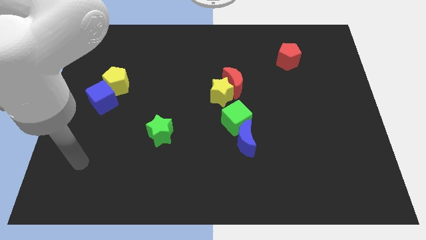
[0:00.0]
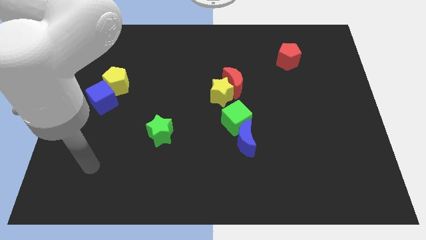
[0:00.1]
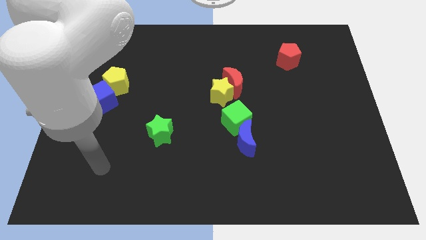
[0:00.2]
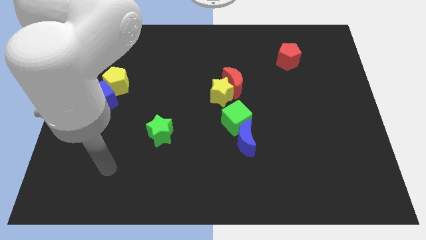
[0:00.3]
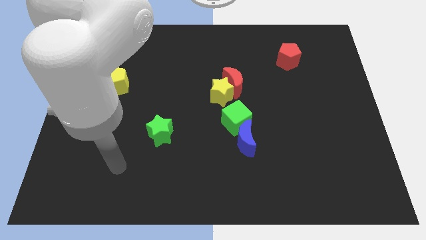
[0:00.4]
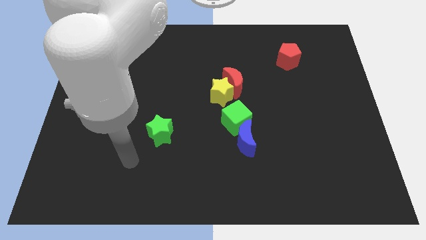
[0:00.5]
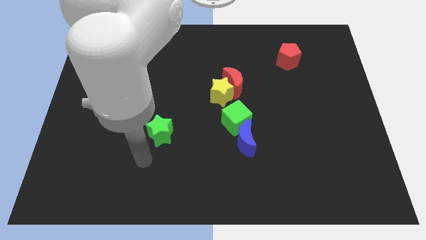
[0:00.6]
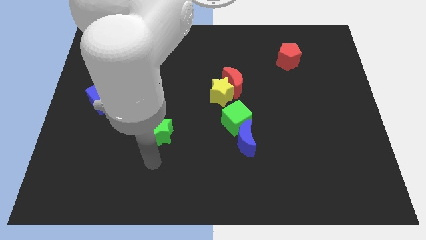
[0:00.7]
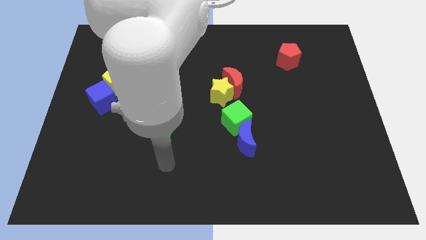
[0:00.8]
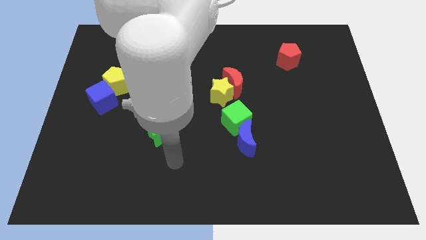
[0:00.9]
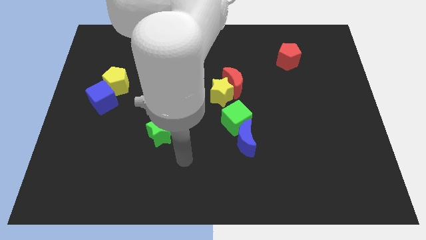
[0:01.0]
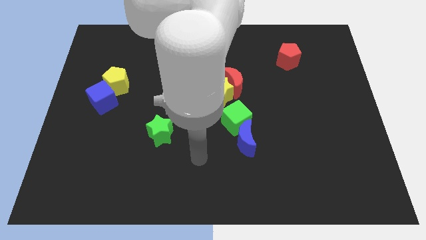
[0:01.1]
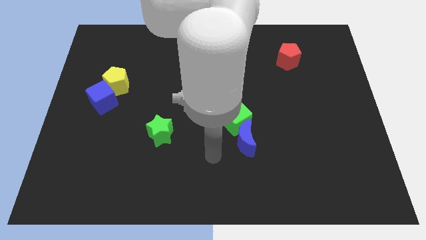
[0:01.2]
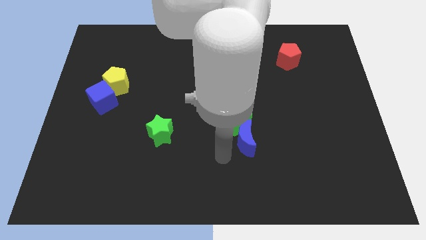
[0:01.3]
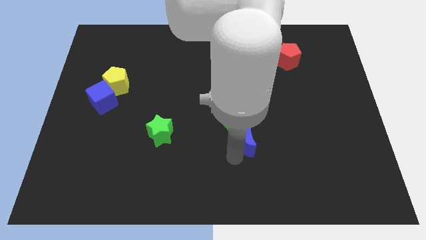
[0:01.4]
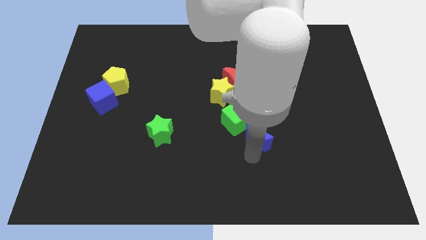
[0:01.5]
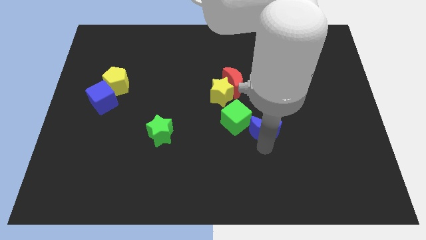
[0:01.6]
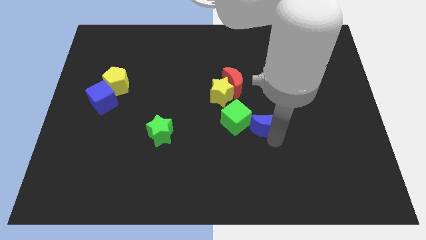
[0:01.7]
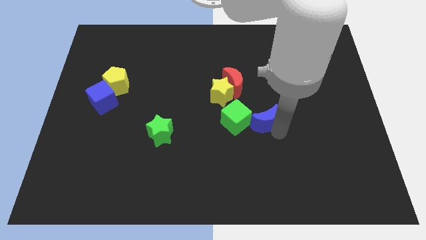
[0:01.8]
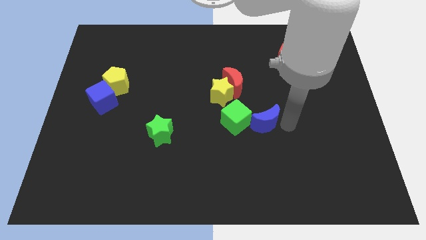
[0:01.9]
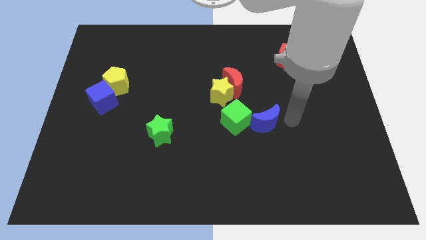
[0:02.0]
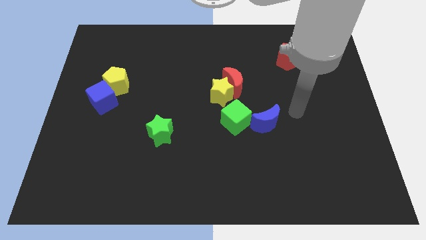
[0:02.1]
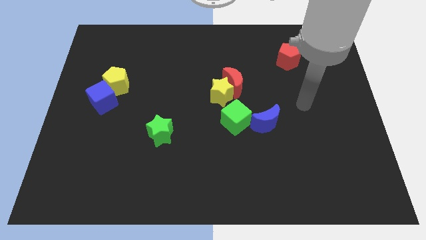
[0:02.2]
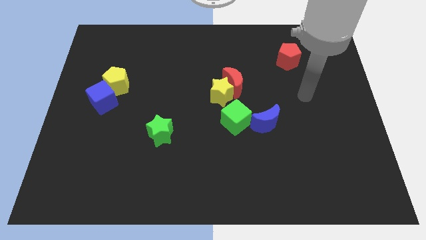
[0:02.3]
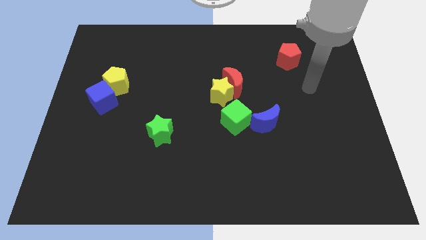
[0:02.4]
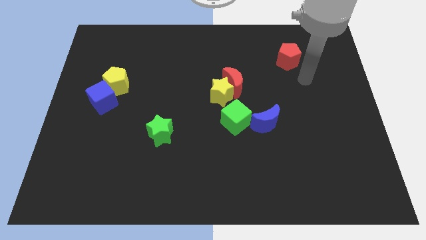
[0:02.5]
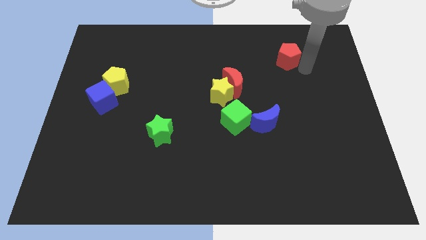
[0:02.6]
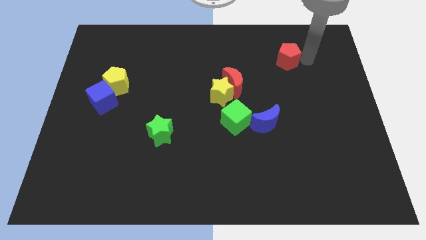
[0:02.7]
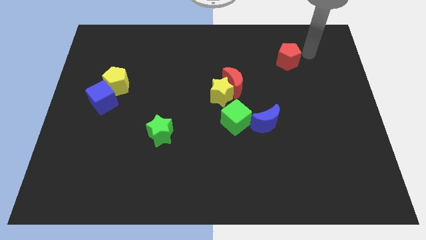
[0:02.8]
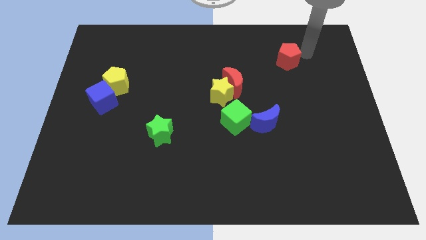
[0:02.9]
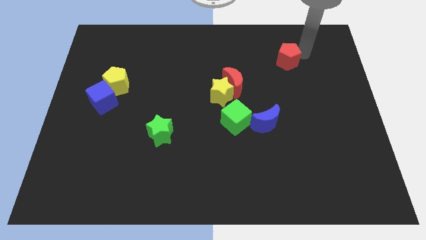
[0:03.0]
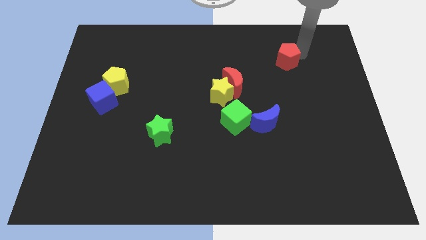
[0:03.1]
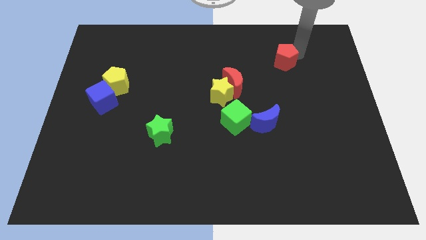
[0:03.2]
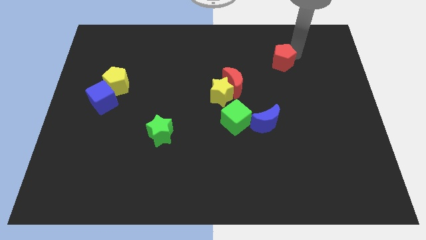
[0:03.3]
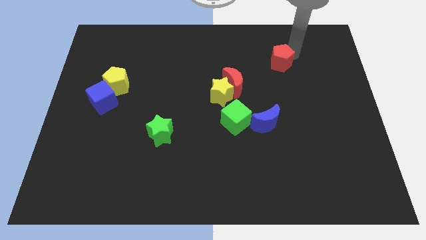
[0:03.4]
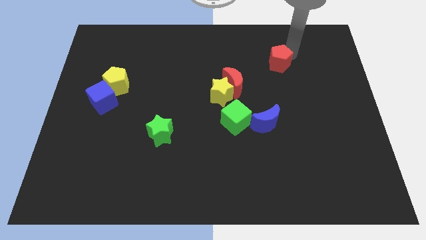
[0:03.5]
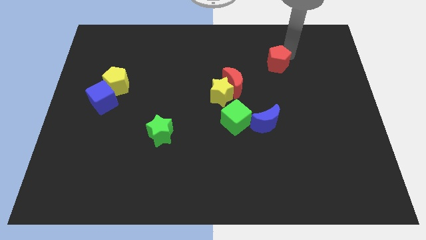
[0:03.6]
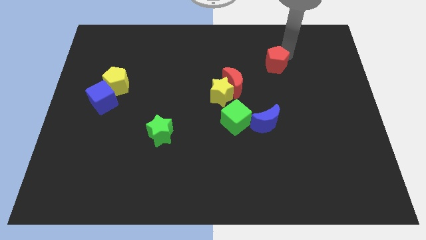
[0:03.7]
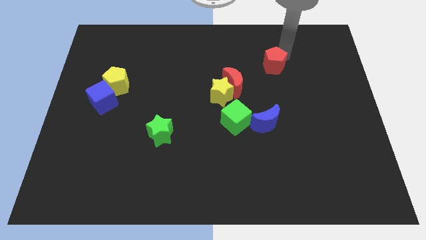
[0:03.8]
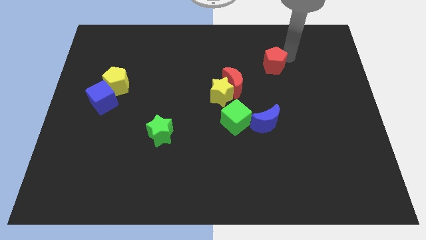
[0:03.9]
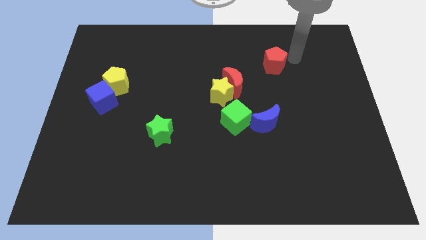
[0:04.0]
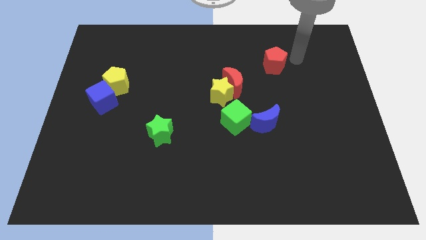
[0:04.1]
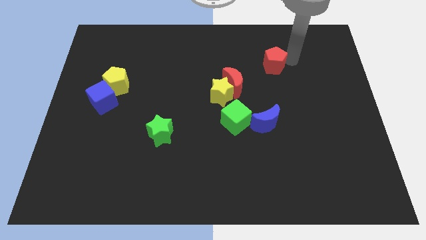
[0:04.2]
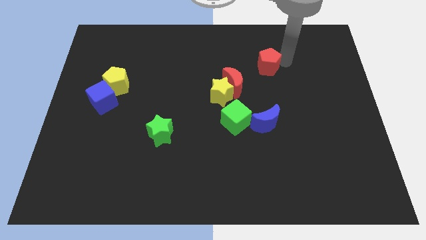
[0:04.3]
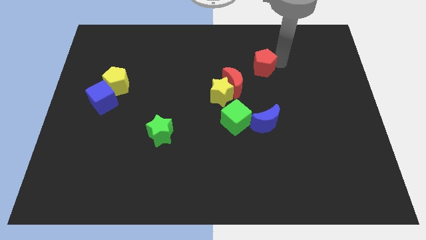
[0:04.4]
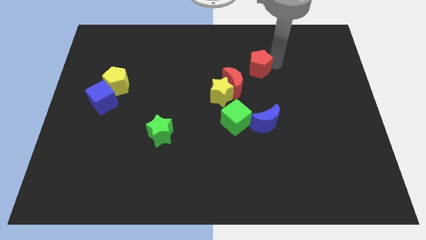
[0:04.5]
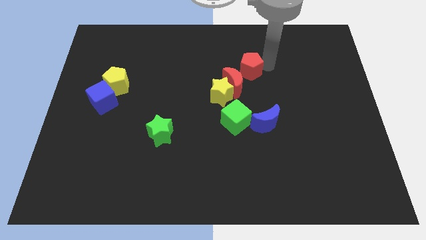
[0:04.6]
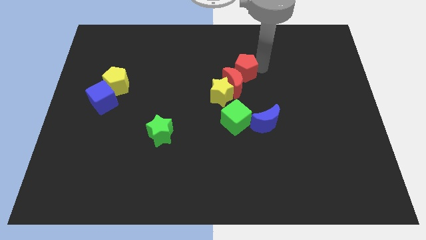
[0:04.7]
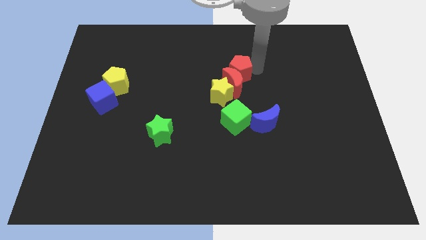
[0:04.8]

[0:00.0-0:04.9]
put the red pentagon to the top left of the red moon

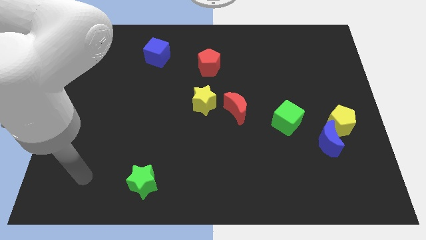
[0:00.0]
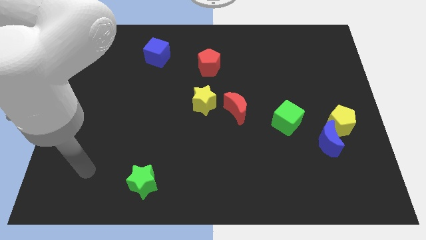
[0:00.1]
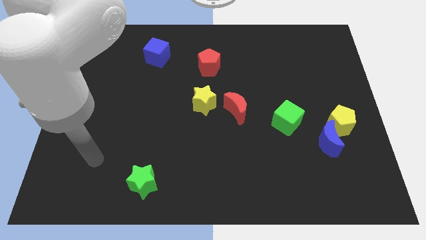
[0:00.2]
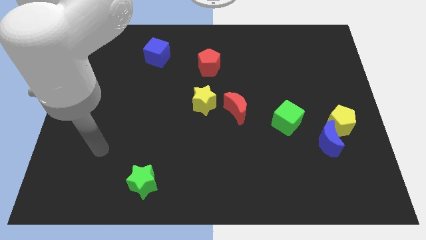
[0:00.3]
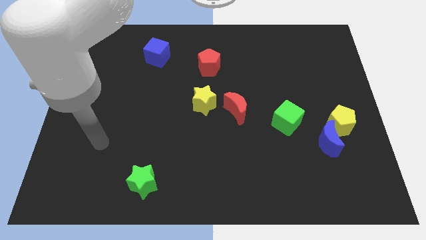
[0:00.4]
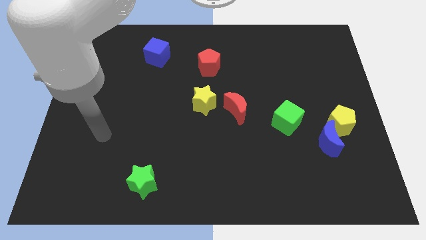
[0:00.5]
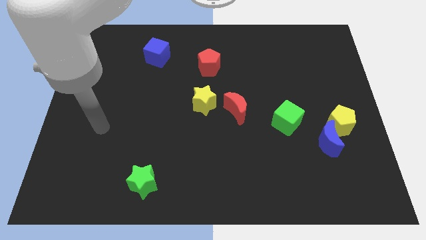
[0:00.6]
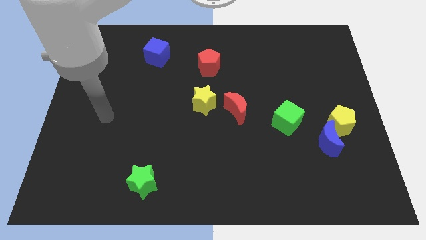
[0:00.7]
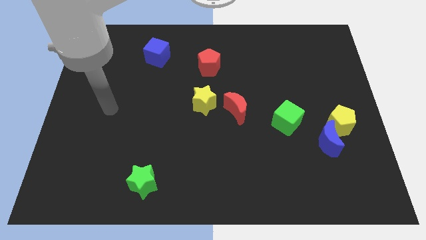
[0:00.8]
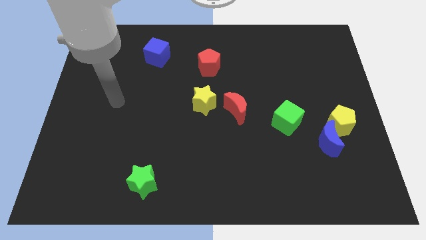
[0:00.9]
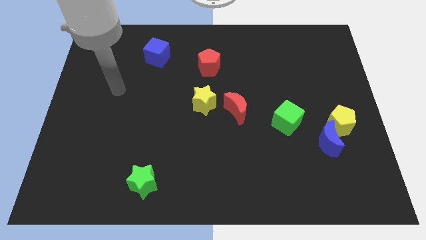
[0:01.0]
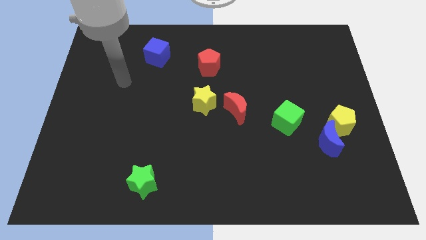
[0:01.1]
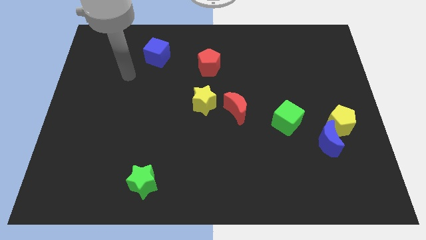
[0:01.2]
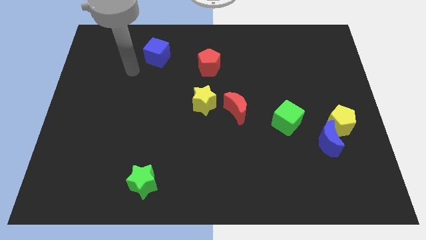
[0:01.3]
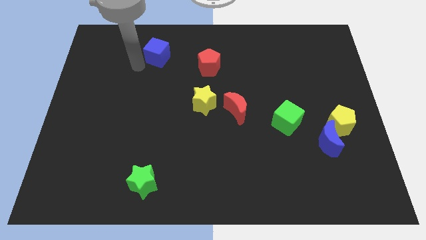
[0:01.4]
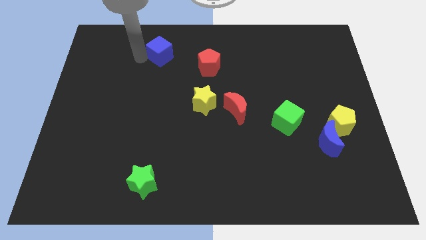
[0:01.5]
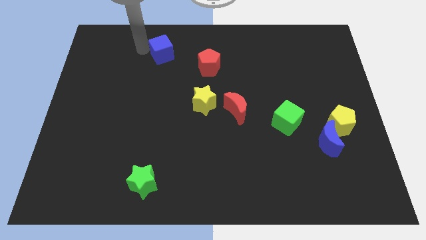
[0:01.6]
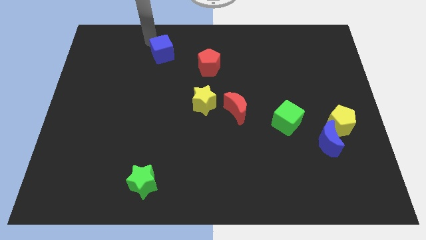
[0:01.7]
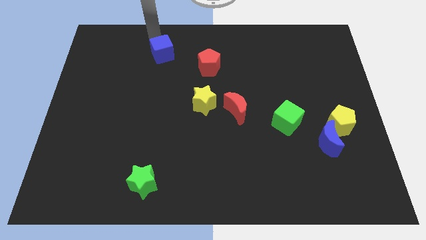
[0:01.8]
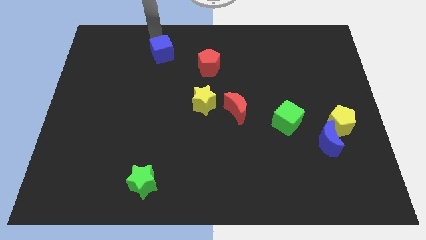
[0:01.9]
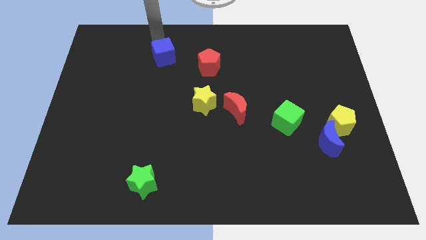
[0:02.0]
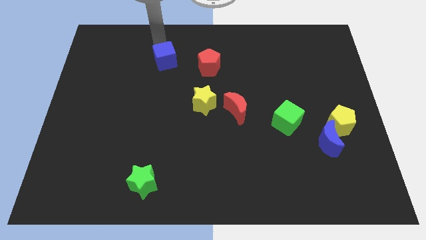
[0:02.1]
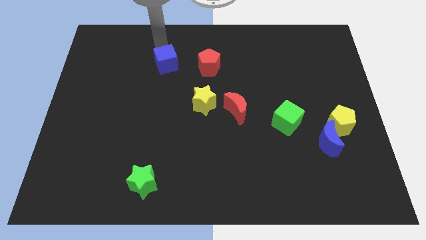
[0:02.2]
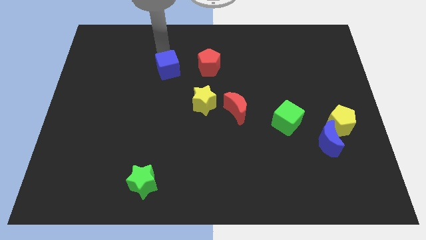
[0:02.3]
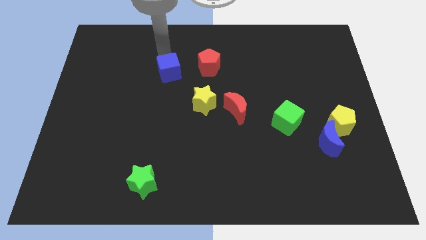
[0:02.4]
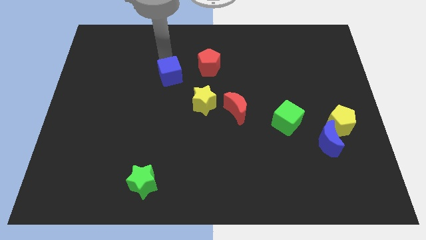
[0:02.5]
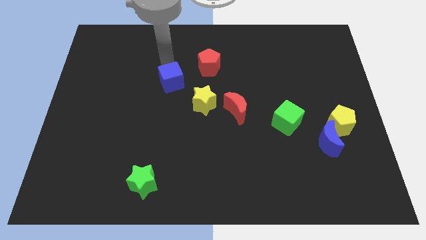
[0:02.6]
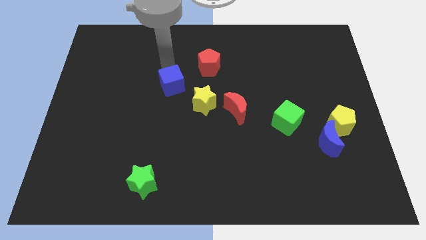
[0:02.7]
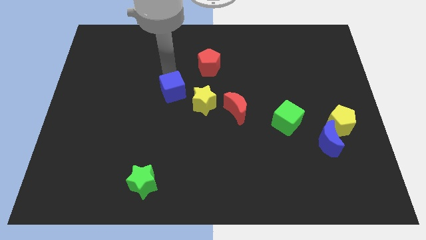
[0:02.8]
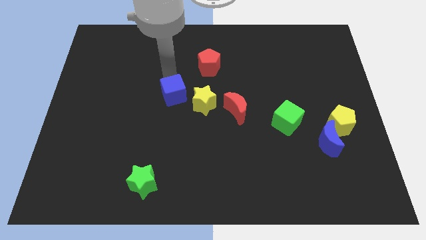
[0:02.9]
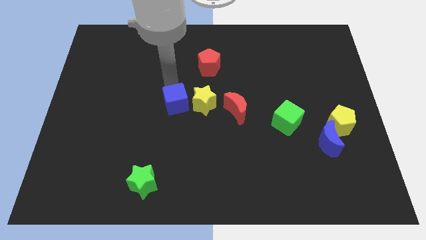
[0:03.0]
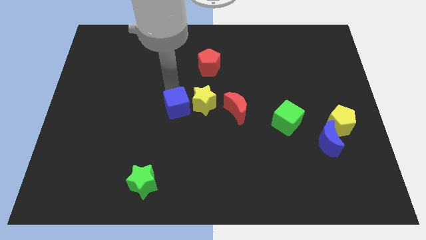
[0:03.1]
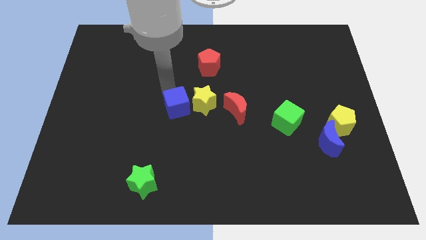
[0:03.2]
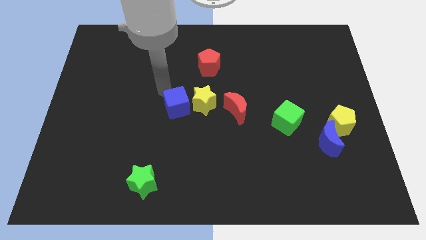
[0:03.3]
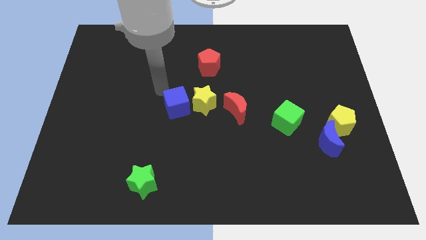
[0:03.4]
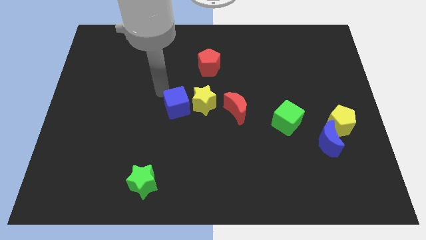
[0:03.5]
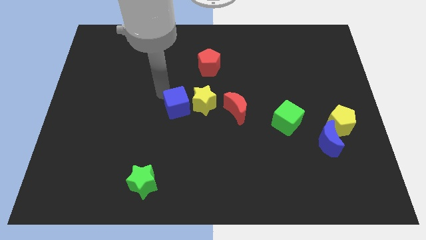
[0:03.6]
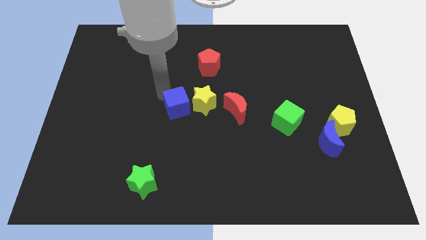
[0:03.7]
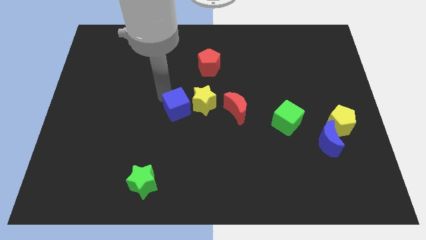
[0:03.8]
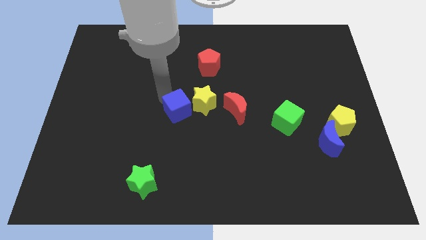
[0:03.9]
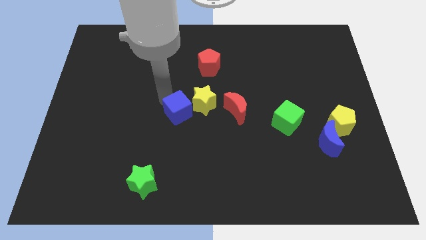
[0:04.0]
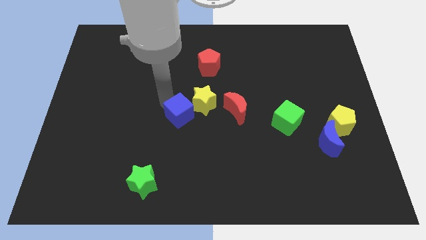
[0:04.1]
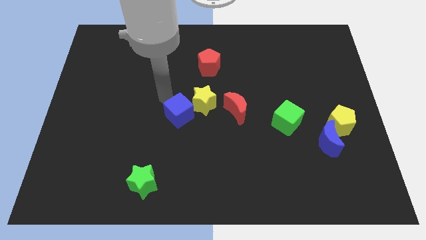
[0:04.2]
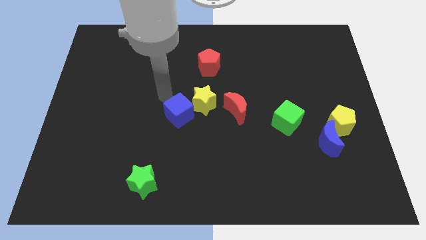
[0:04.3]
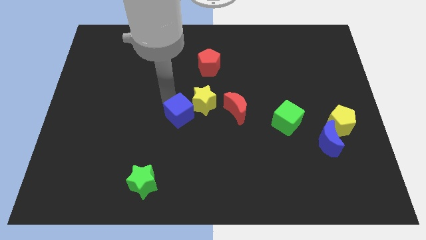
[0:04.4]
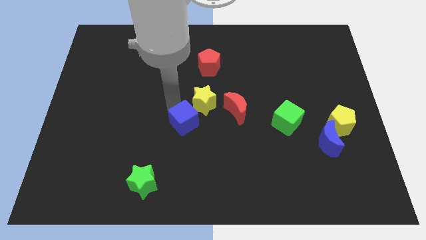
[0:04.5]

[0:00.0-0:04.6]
push the blue cube to the bottom side of the yellow star
